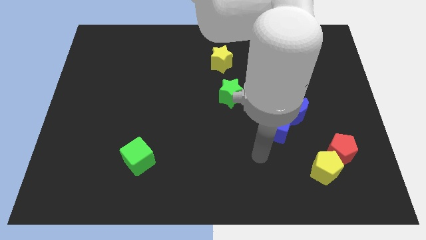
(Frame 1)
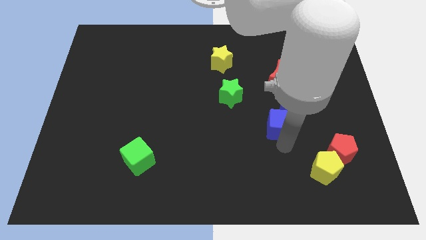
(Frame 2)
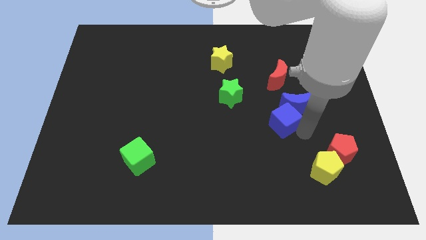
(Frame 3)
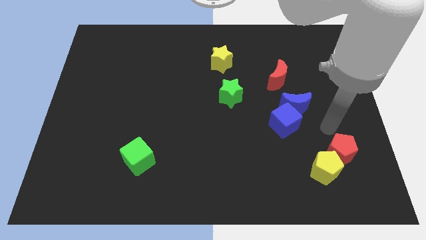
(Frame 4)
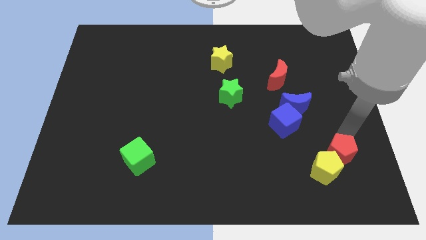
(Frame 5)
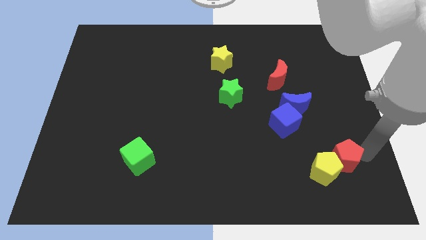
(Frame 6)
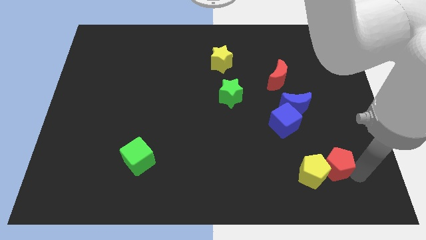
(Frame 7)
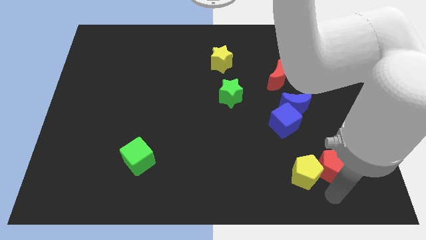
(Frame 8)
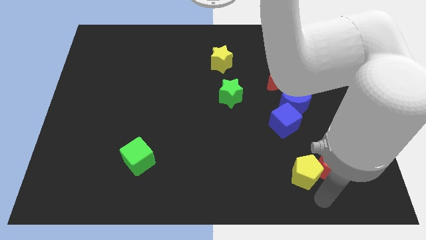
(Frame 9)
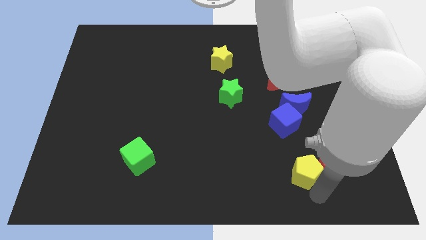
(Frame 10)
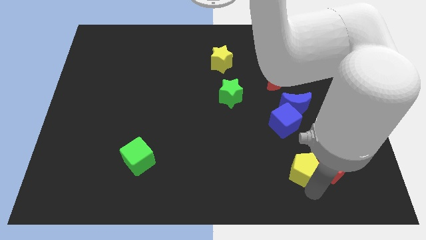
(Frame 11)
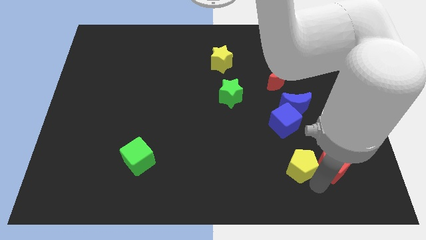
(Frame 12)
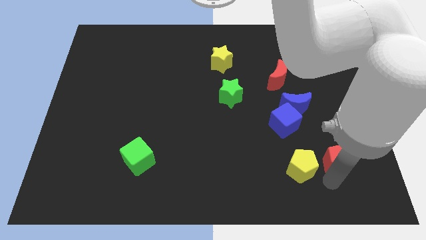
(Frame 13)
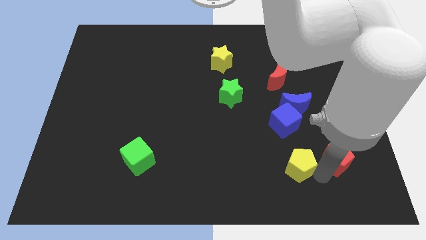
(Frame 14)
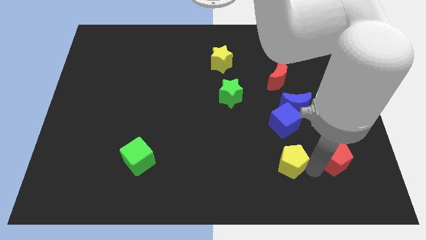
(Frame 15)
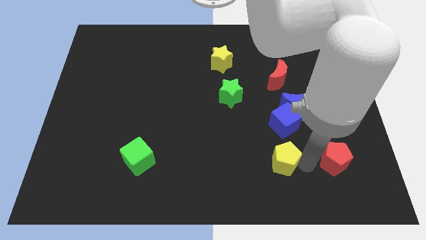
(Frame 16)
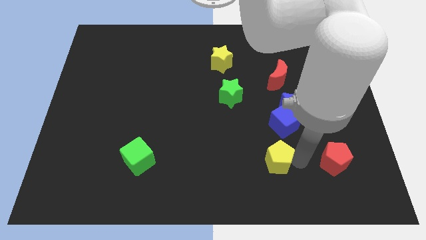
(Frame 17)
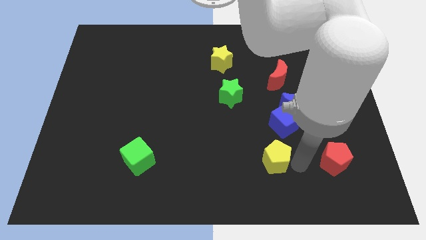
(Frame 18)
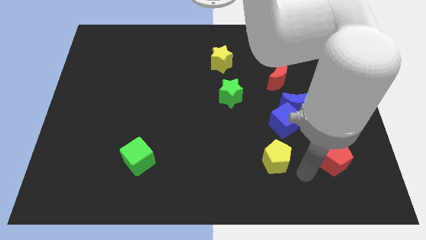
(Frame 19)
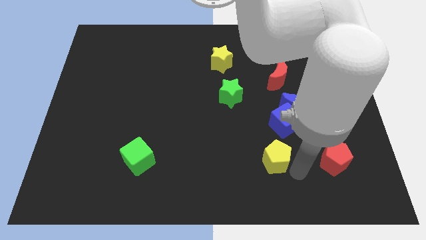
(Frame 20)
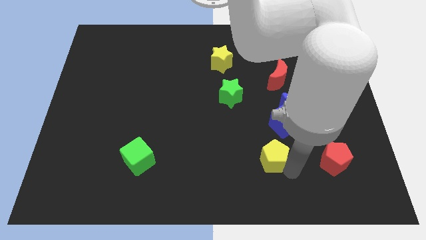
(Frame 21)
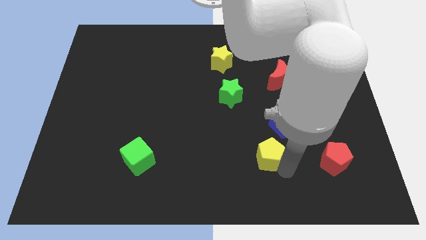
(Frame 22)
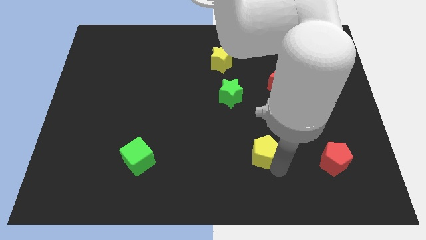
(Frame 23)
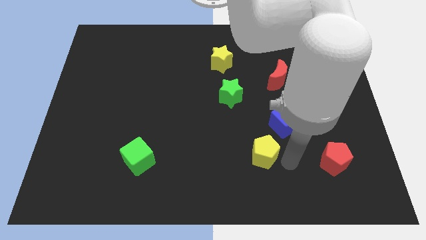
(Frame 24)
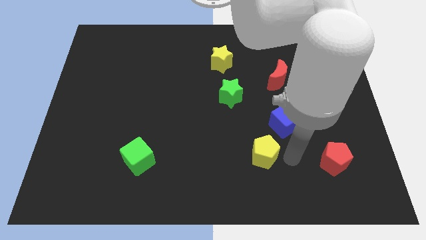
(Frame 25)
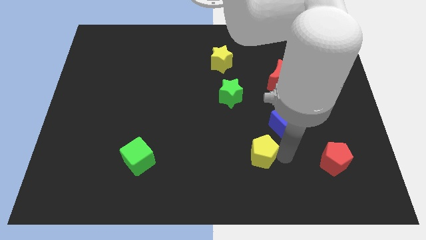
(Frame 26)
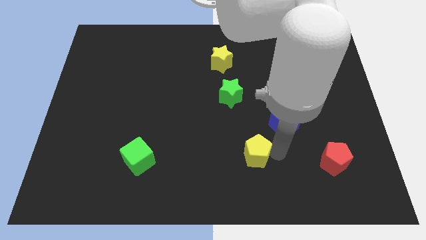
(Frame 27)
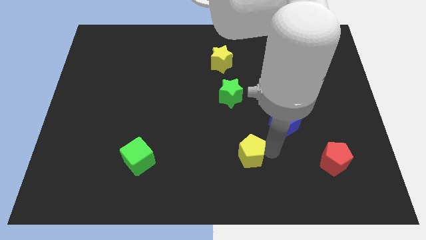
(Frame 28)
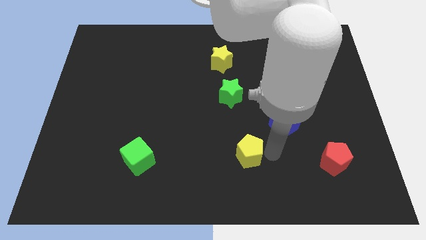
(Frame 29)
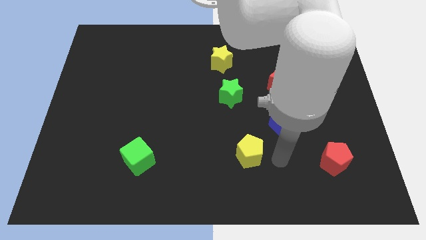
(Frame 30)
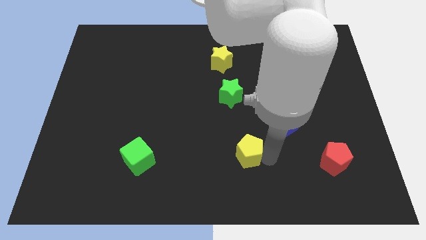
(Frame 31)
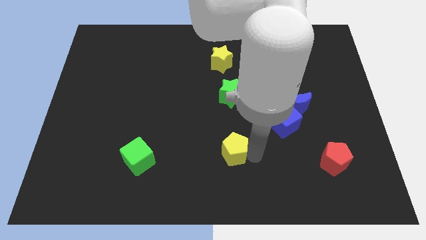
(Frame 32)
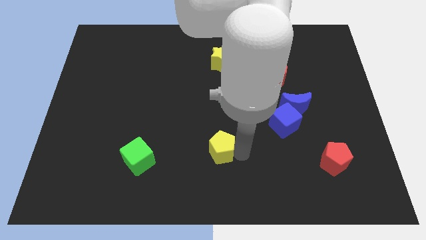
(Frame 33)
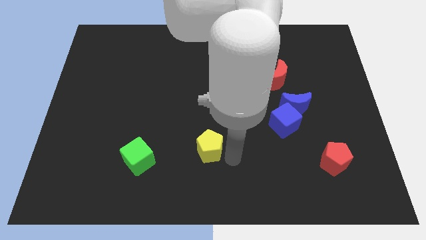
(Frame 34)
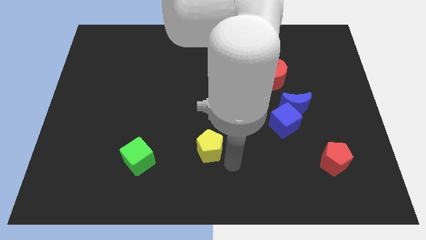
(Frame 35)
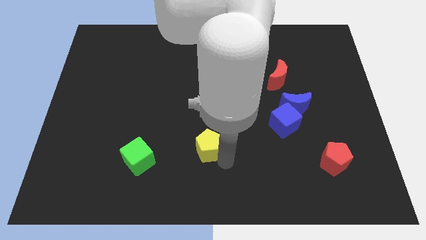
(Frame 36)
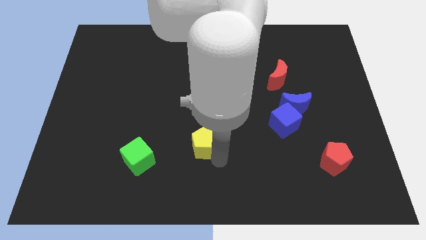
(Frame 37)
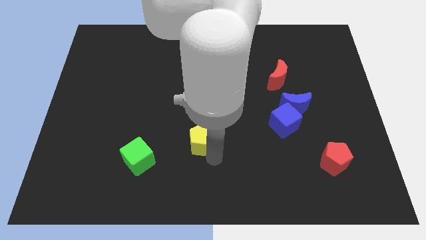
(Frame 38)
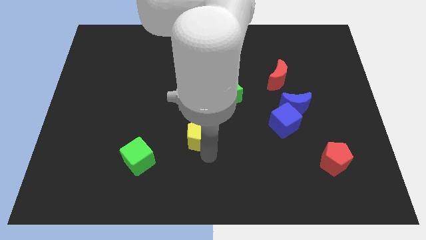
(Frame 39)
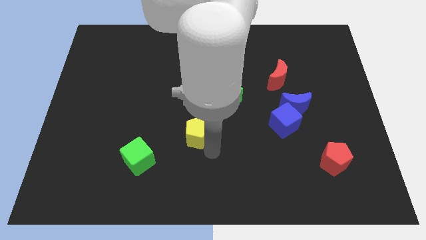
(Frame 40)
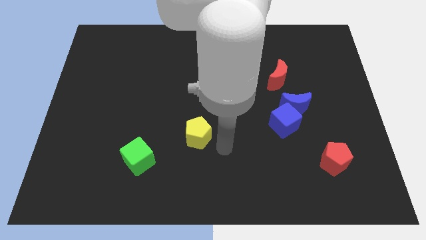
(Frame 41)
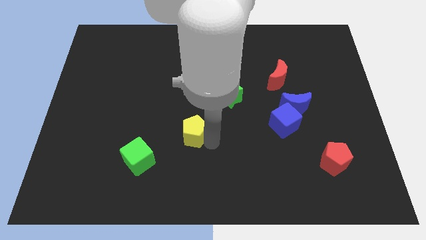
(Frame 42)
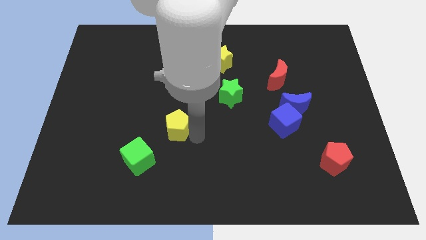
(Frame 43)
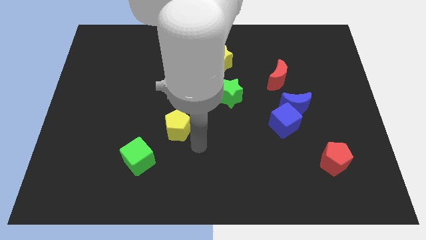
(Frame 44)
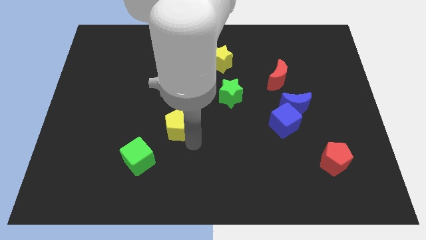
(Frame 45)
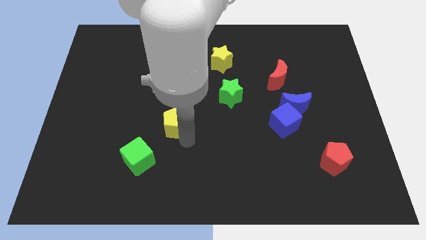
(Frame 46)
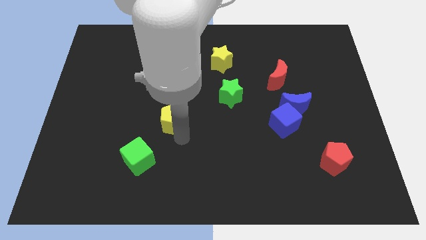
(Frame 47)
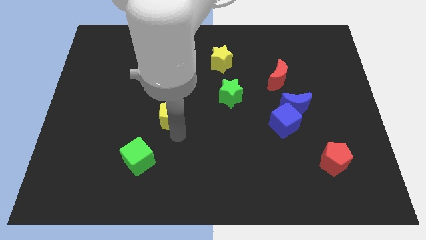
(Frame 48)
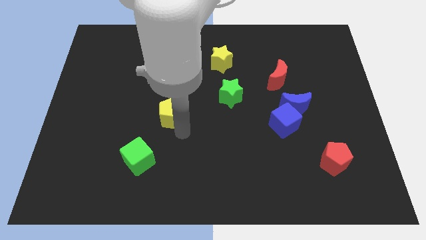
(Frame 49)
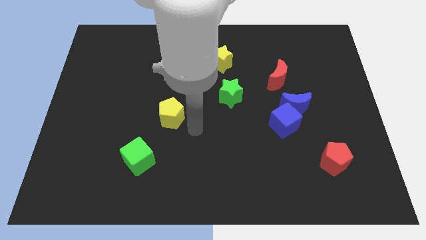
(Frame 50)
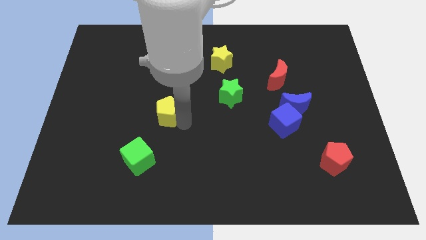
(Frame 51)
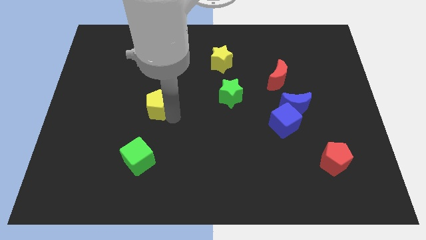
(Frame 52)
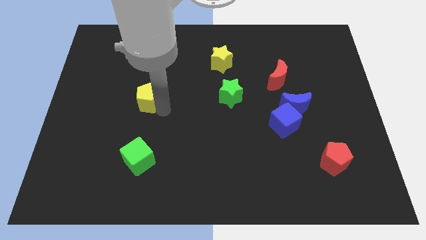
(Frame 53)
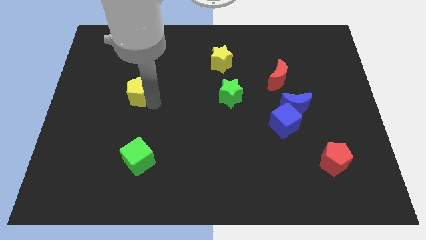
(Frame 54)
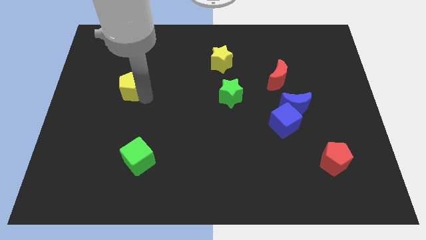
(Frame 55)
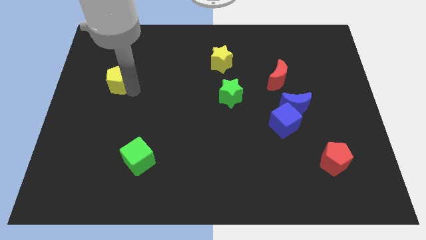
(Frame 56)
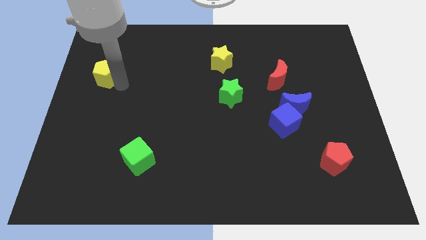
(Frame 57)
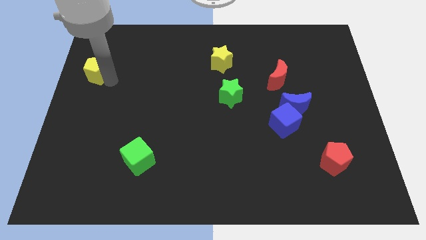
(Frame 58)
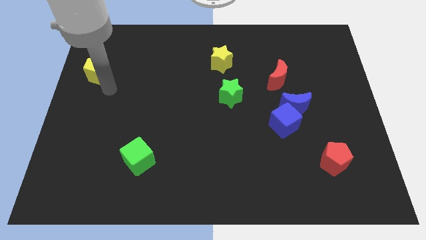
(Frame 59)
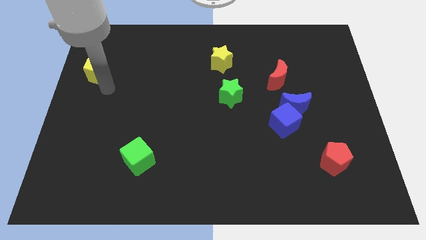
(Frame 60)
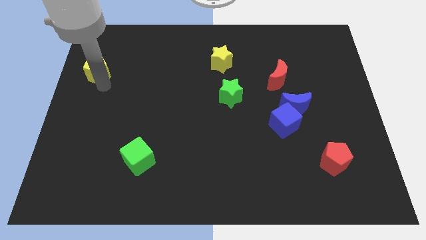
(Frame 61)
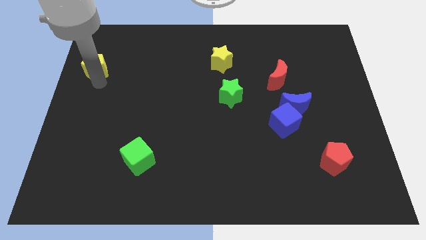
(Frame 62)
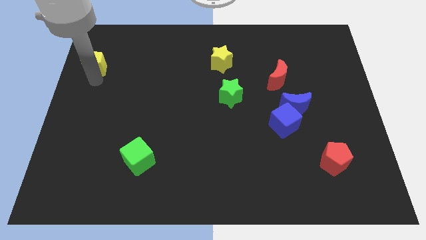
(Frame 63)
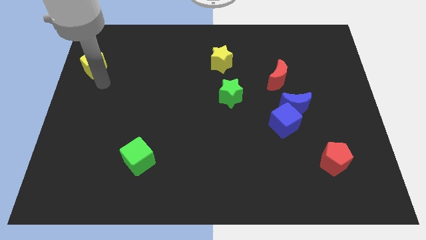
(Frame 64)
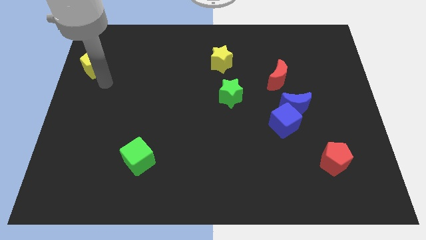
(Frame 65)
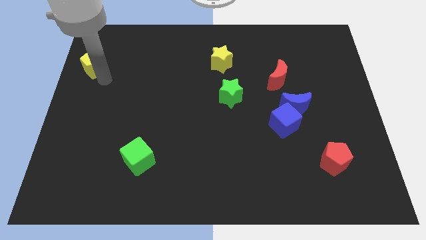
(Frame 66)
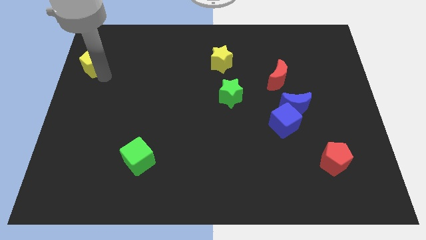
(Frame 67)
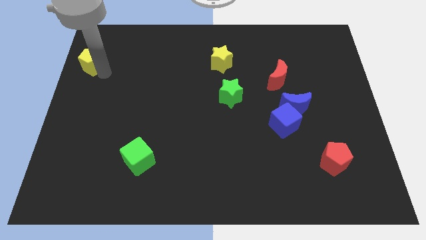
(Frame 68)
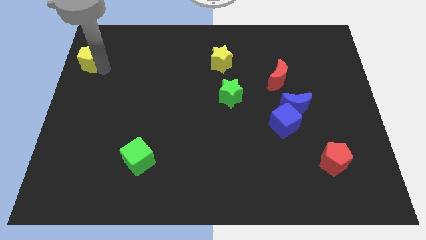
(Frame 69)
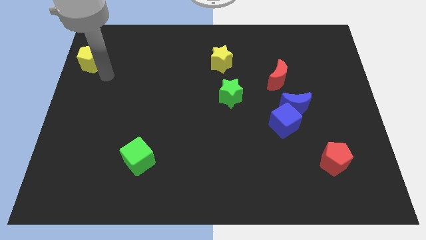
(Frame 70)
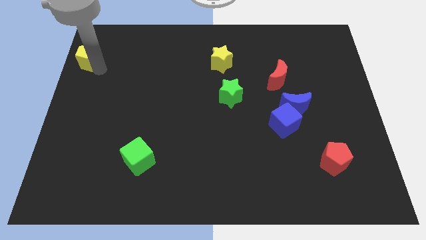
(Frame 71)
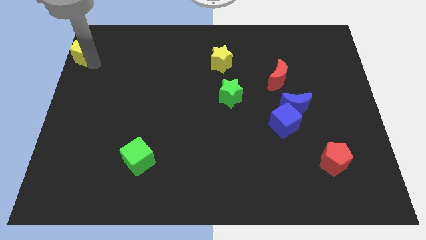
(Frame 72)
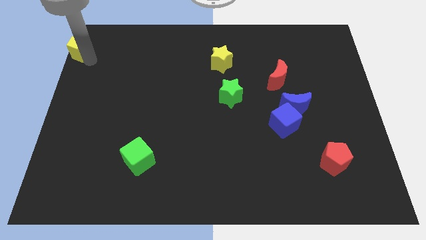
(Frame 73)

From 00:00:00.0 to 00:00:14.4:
push the yellow pentagon to the top left of the board
